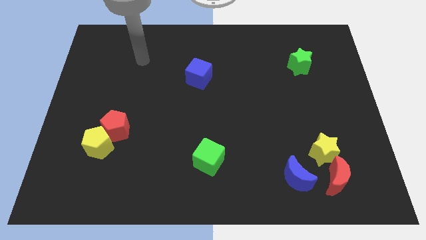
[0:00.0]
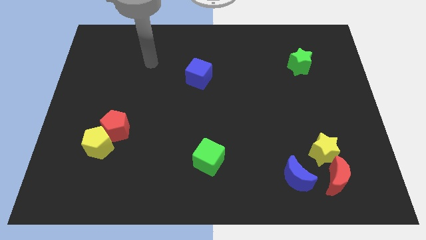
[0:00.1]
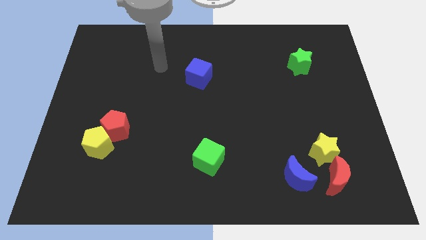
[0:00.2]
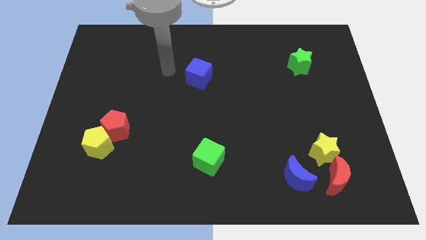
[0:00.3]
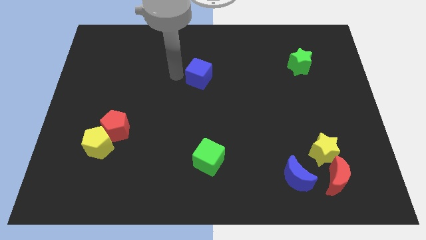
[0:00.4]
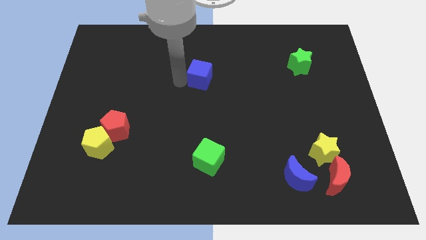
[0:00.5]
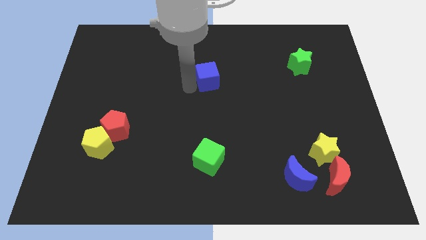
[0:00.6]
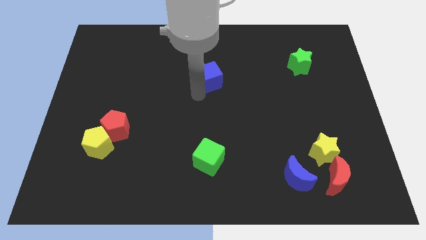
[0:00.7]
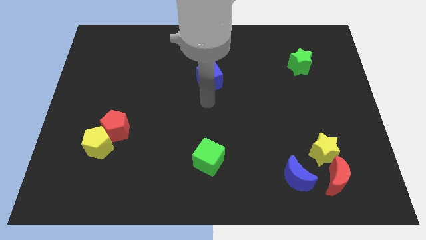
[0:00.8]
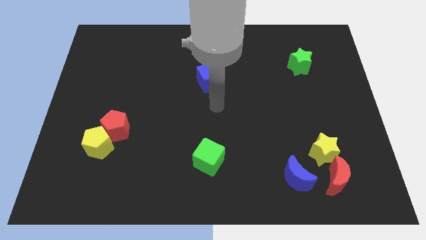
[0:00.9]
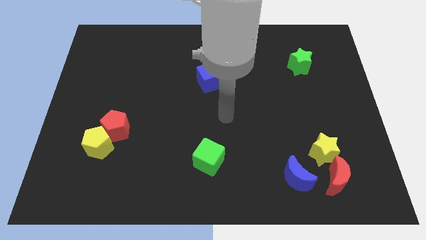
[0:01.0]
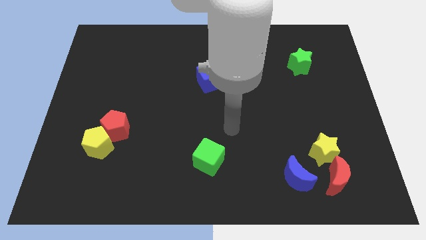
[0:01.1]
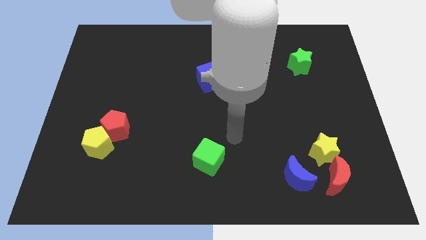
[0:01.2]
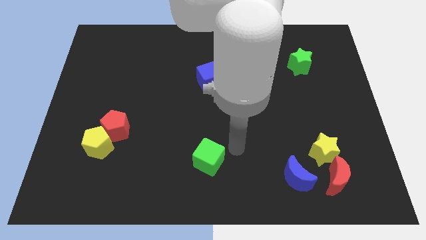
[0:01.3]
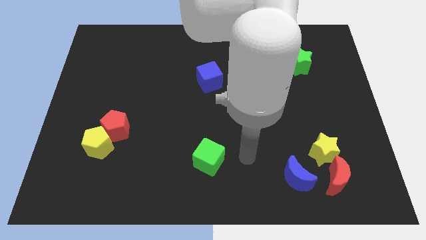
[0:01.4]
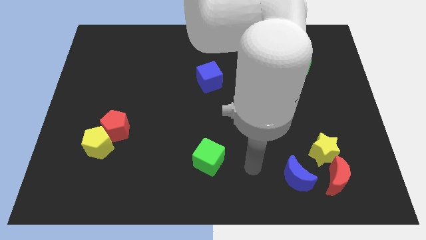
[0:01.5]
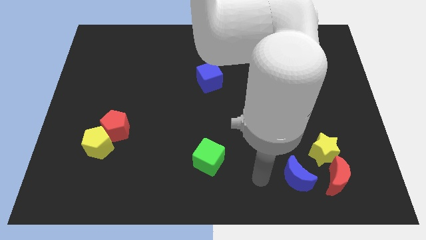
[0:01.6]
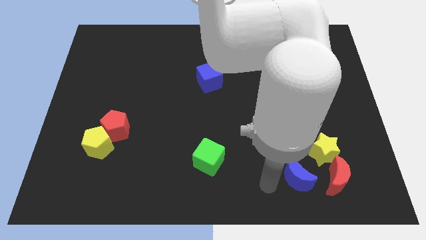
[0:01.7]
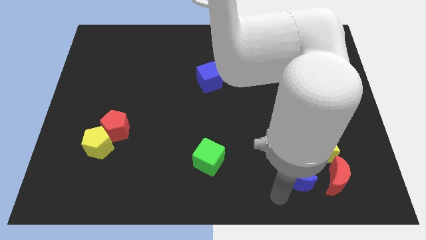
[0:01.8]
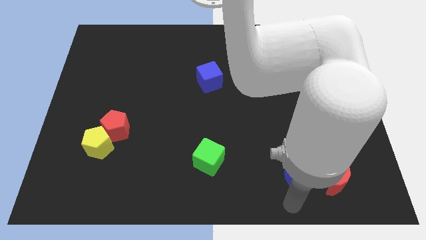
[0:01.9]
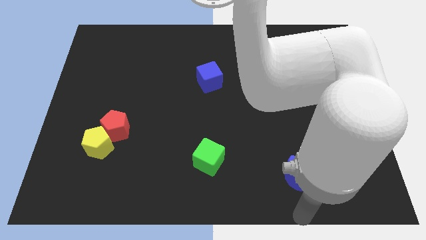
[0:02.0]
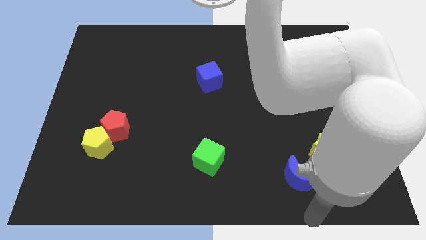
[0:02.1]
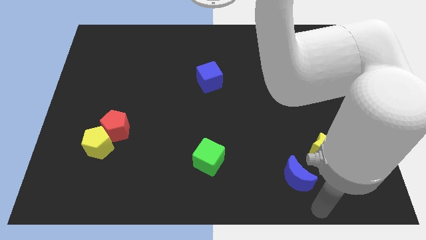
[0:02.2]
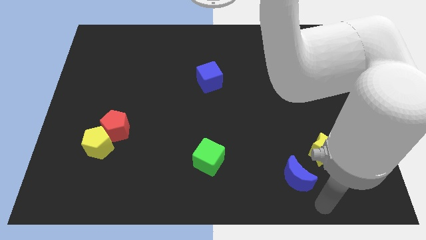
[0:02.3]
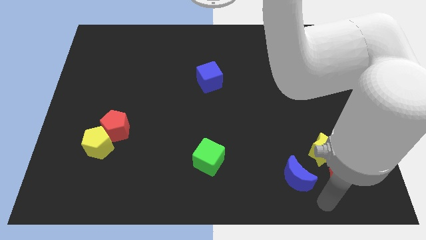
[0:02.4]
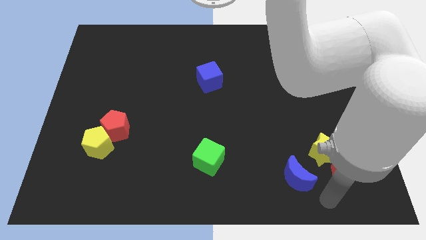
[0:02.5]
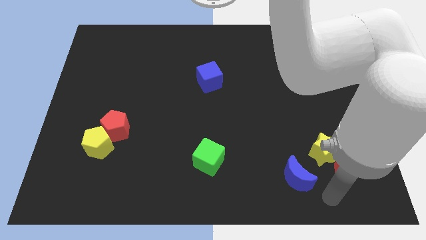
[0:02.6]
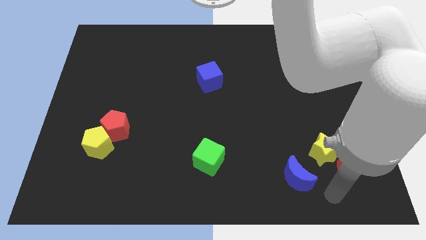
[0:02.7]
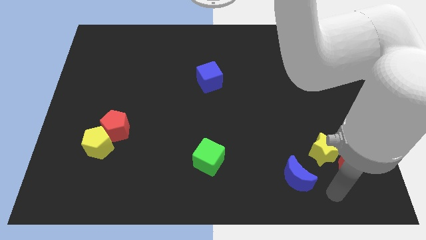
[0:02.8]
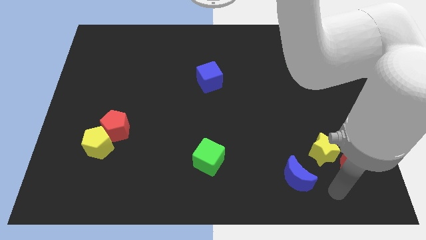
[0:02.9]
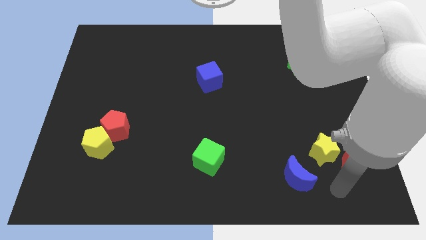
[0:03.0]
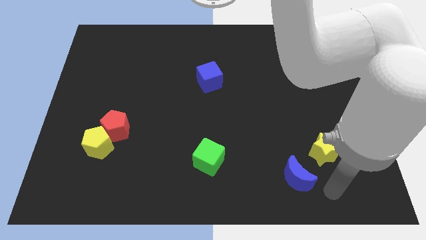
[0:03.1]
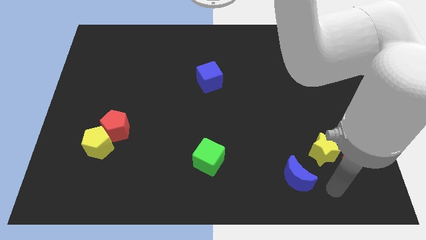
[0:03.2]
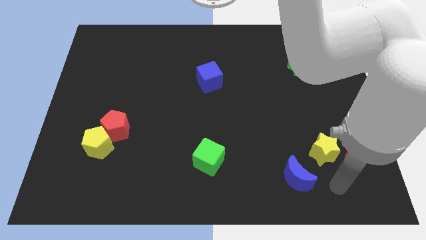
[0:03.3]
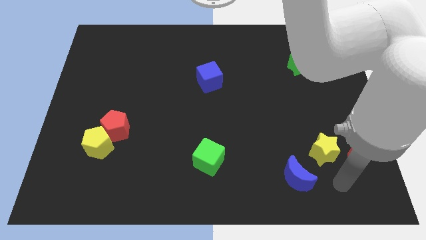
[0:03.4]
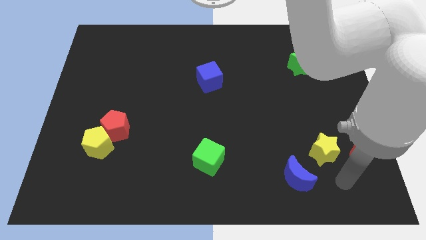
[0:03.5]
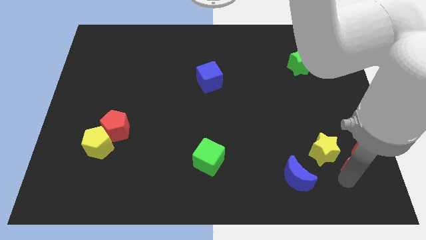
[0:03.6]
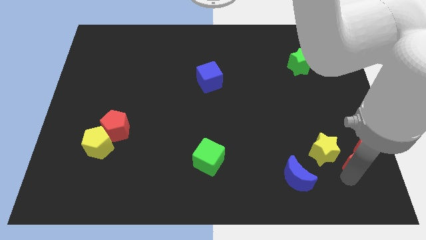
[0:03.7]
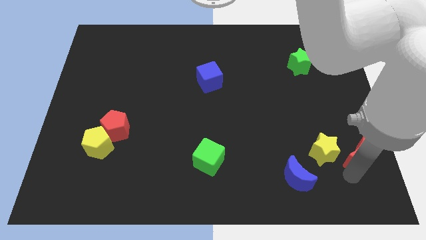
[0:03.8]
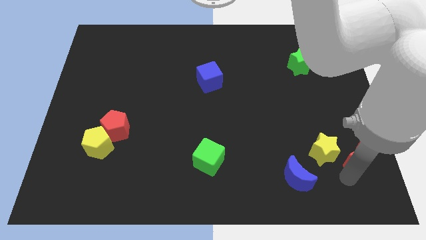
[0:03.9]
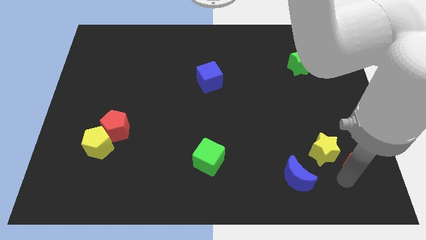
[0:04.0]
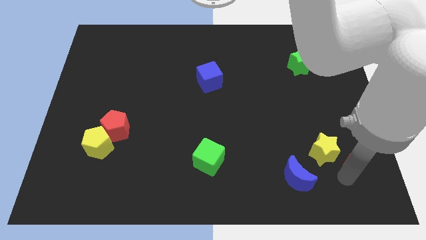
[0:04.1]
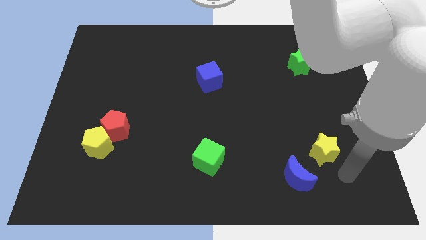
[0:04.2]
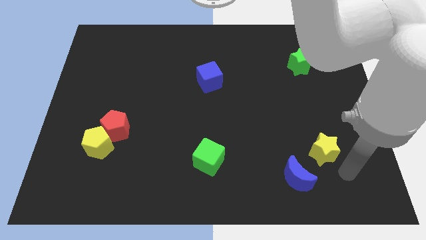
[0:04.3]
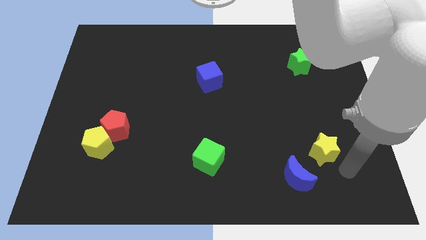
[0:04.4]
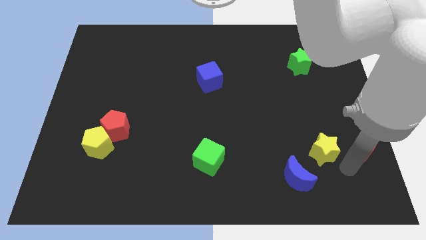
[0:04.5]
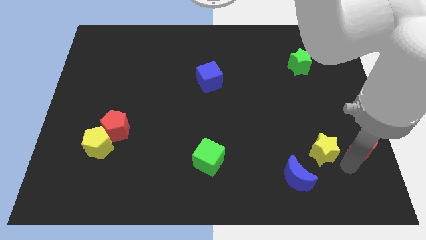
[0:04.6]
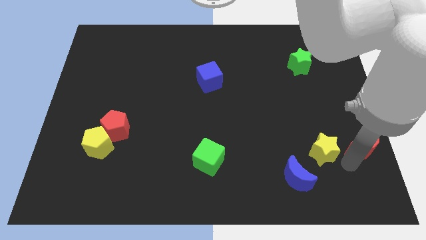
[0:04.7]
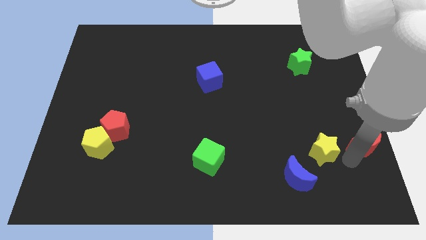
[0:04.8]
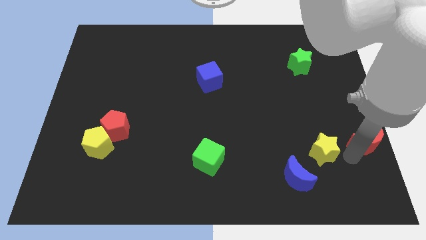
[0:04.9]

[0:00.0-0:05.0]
push the red moon to the right side

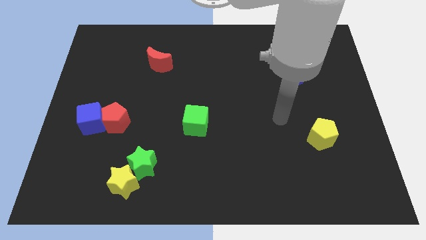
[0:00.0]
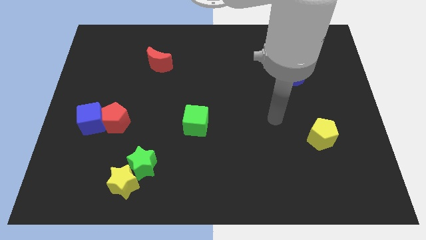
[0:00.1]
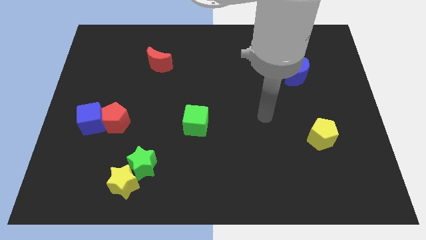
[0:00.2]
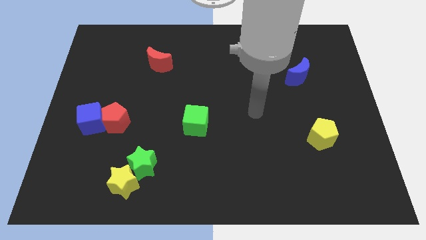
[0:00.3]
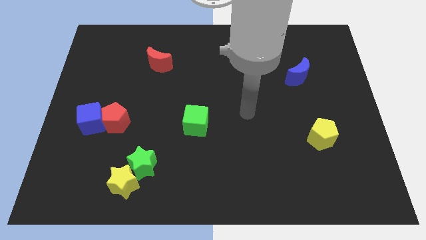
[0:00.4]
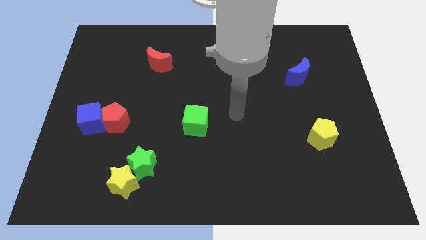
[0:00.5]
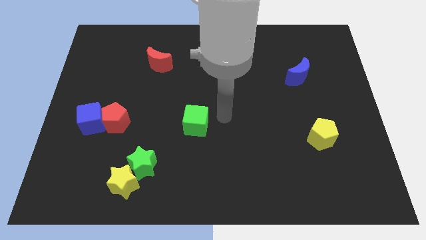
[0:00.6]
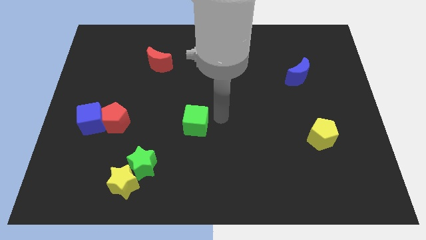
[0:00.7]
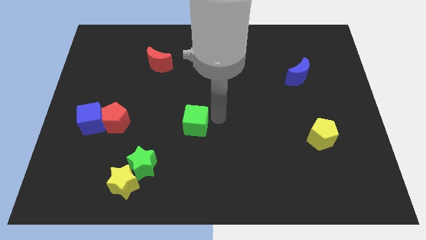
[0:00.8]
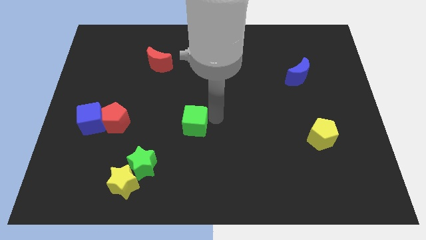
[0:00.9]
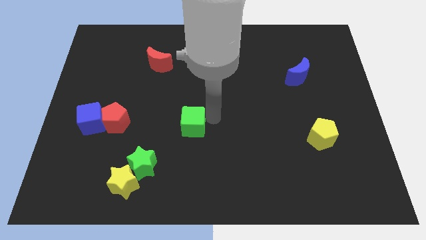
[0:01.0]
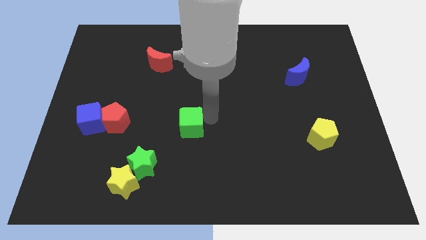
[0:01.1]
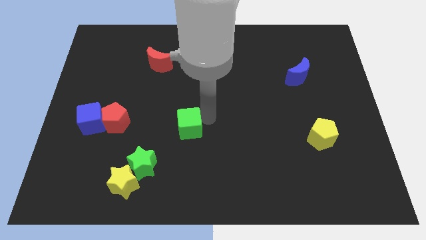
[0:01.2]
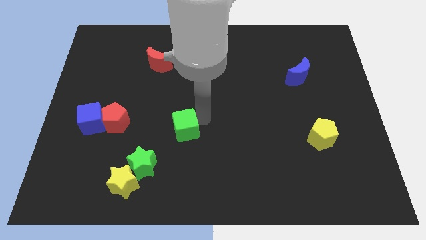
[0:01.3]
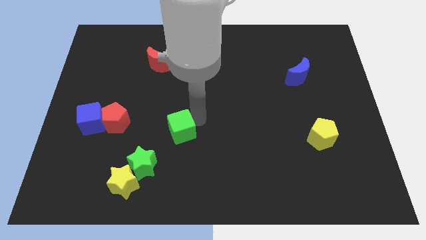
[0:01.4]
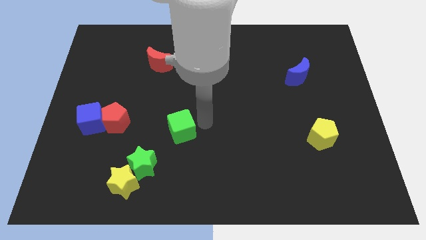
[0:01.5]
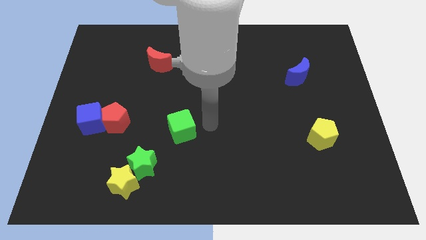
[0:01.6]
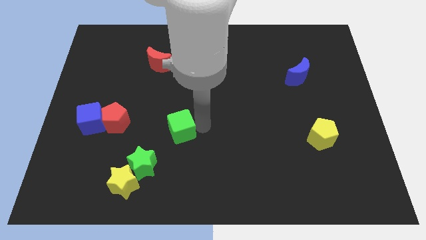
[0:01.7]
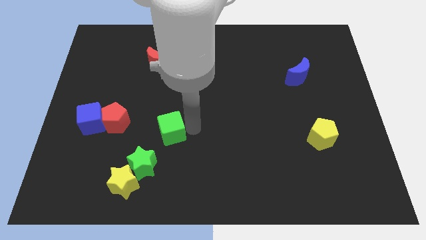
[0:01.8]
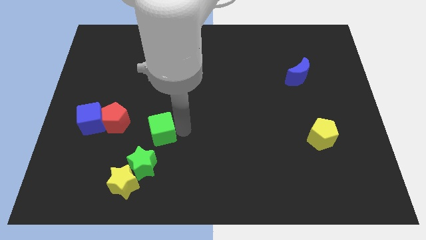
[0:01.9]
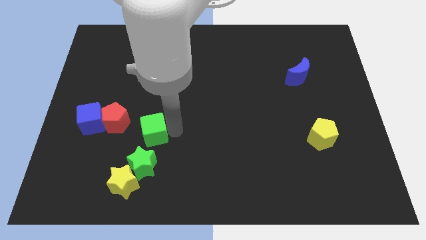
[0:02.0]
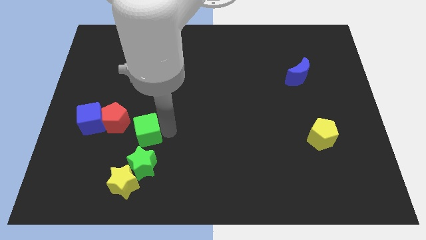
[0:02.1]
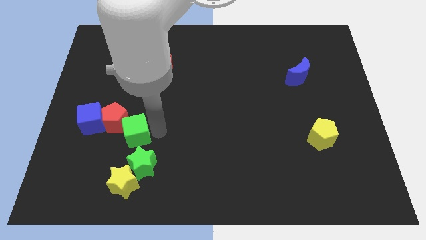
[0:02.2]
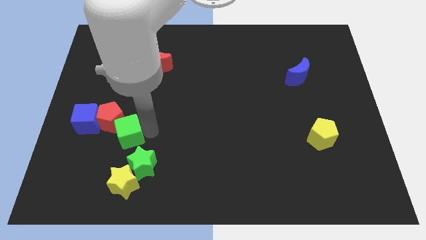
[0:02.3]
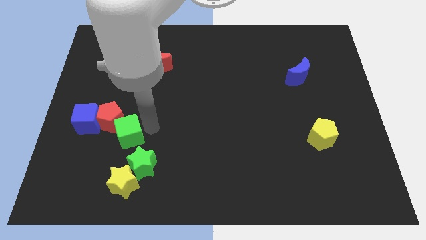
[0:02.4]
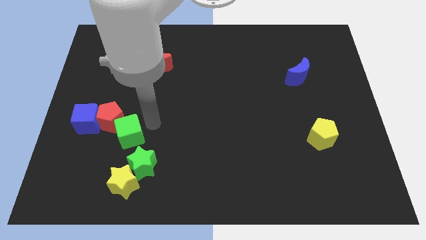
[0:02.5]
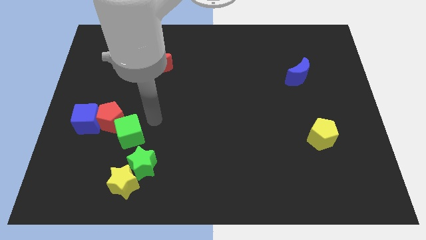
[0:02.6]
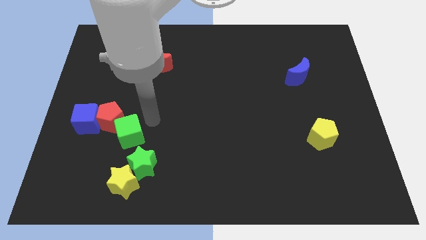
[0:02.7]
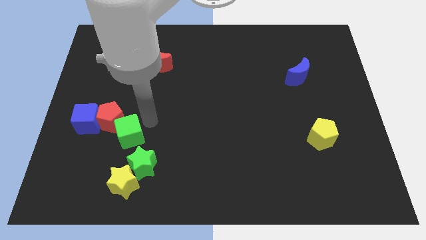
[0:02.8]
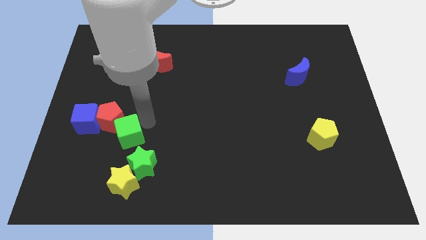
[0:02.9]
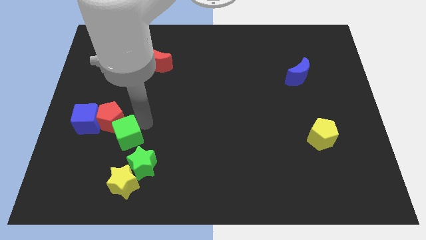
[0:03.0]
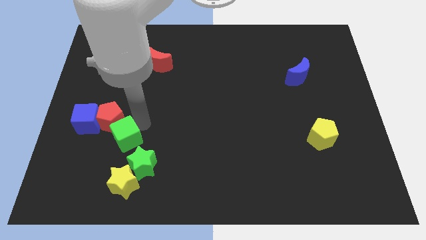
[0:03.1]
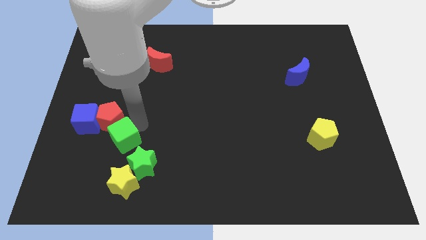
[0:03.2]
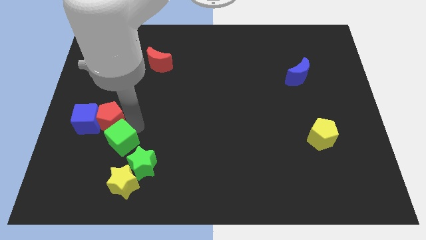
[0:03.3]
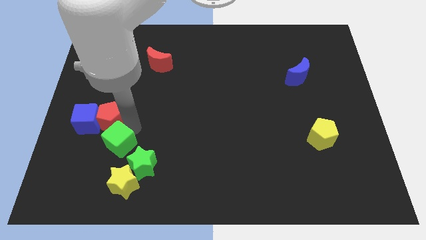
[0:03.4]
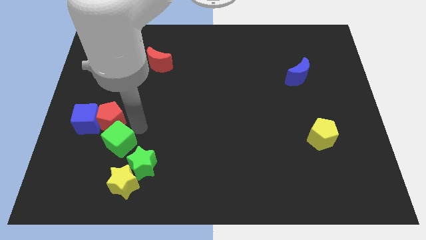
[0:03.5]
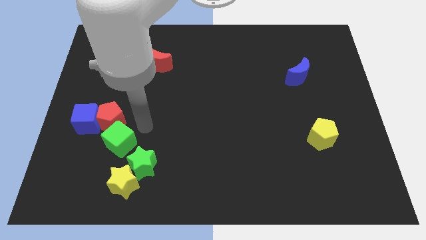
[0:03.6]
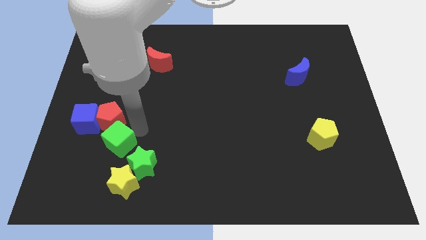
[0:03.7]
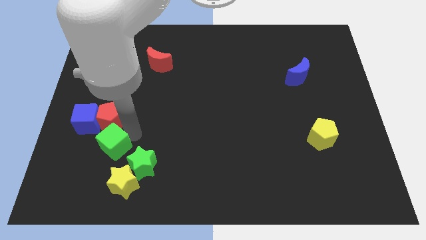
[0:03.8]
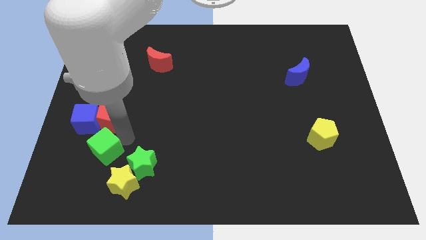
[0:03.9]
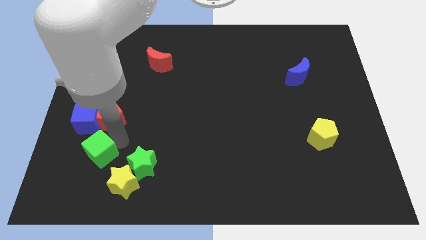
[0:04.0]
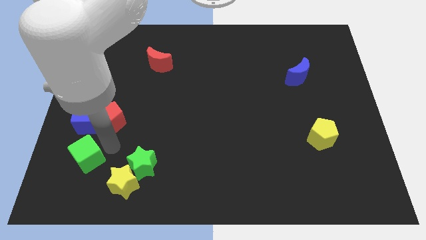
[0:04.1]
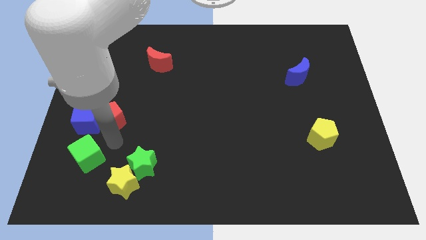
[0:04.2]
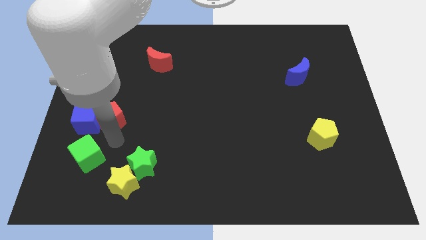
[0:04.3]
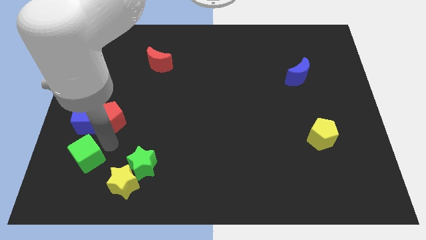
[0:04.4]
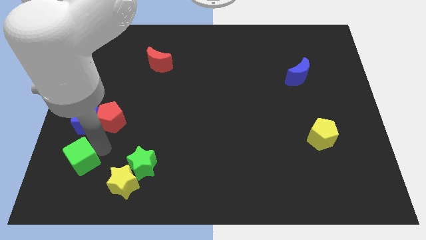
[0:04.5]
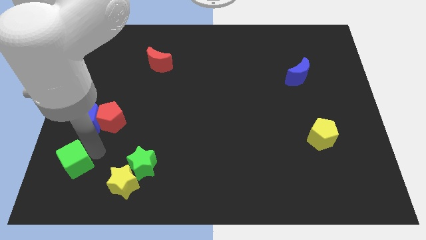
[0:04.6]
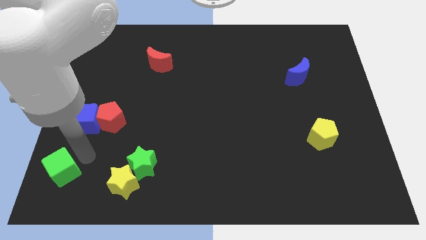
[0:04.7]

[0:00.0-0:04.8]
push the green cube to the bottom left
